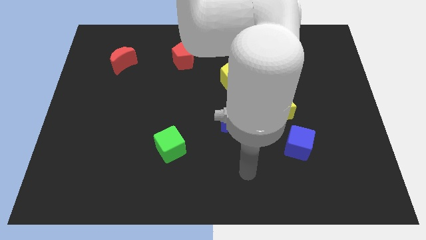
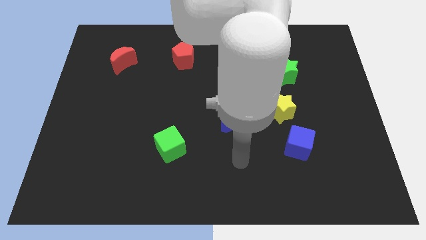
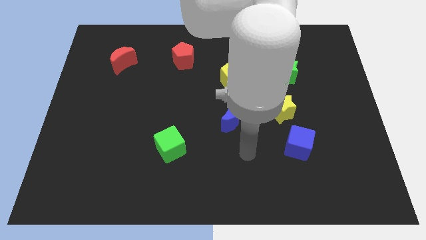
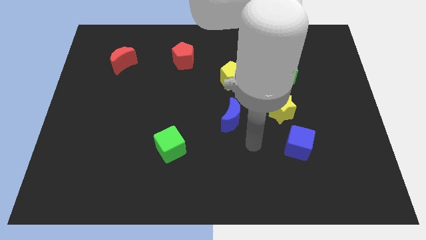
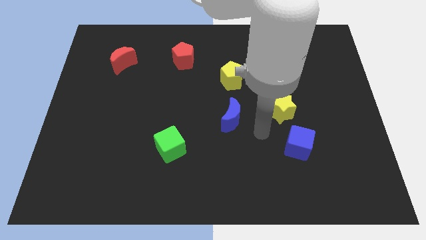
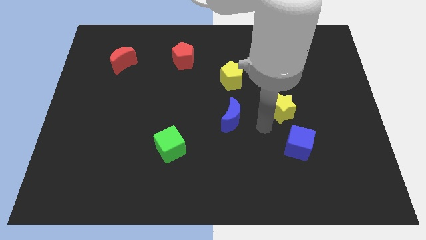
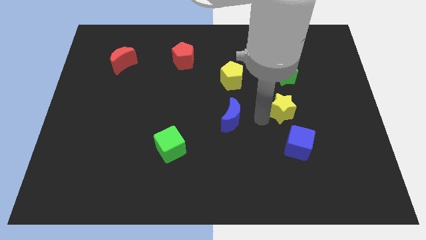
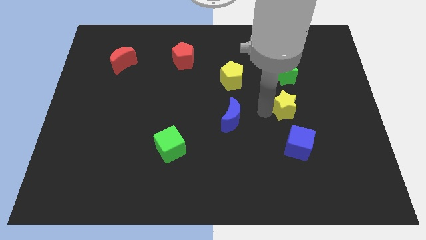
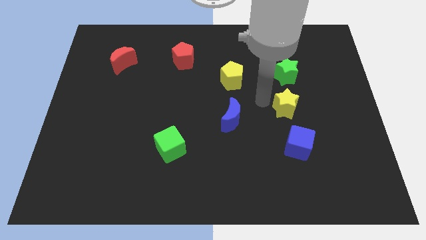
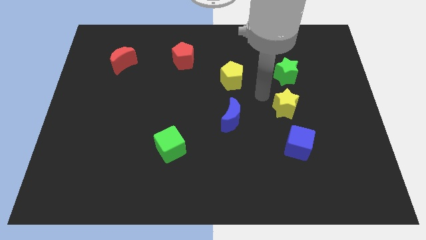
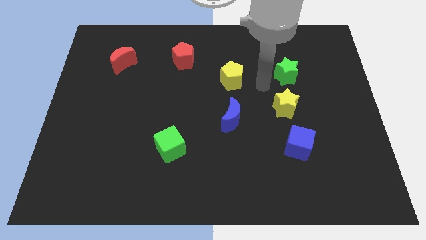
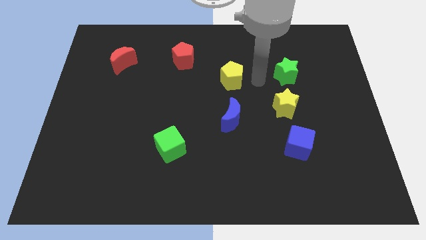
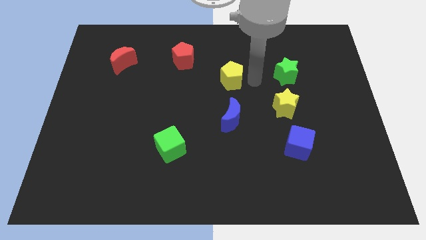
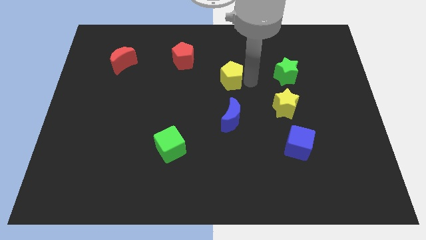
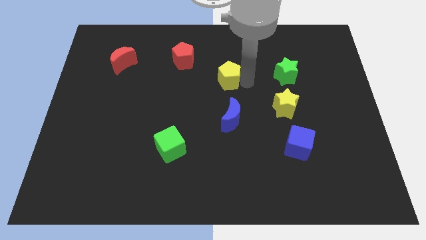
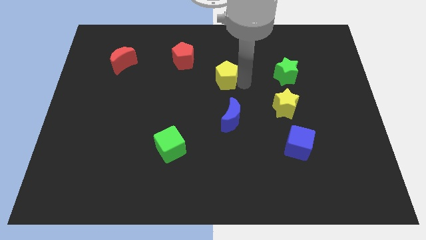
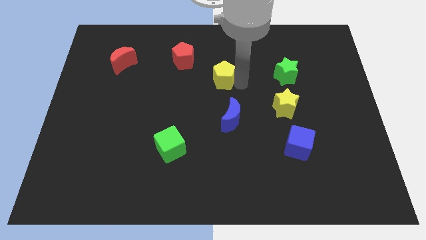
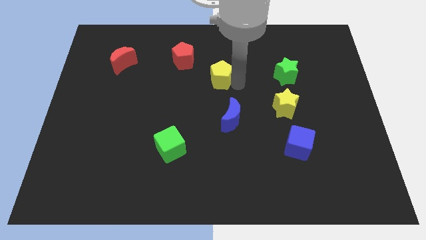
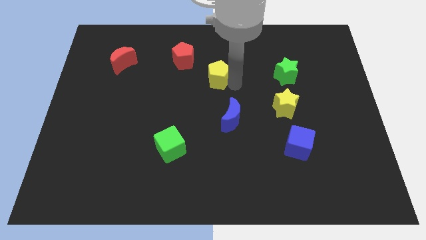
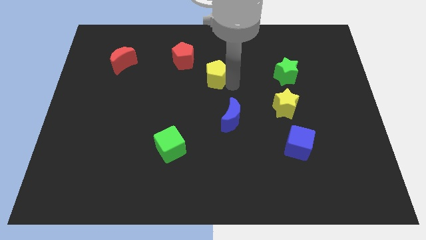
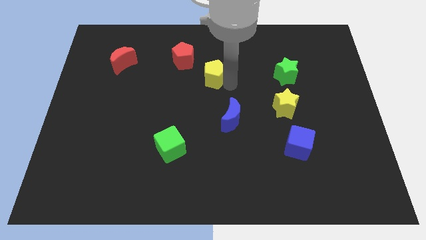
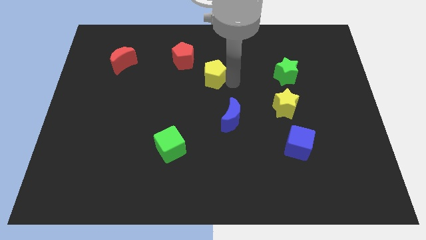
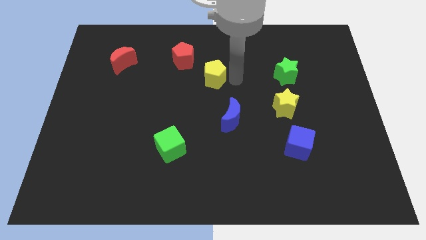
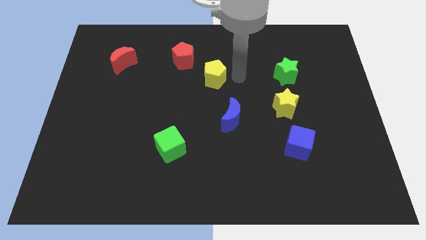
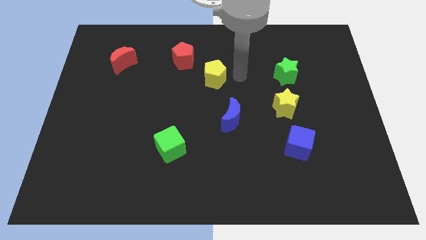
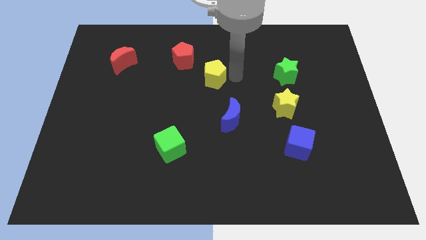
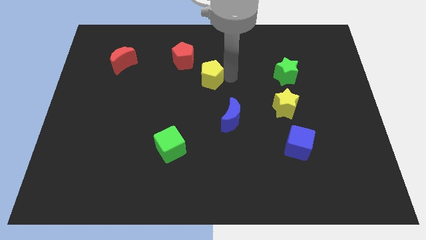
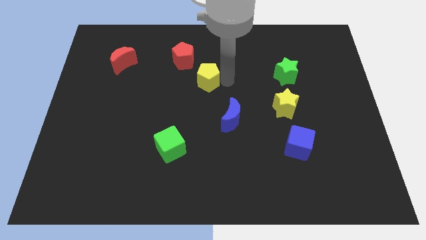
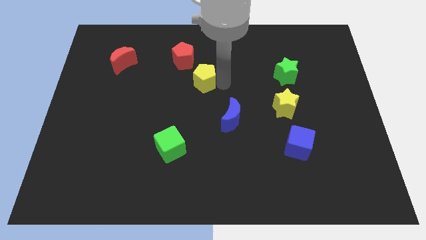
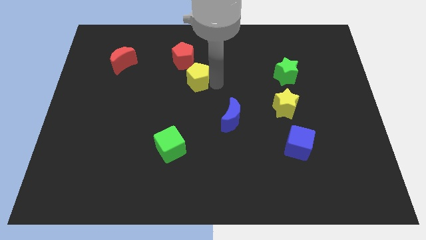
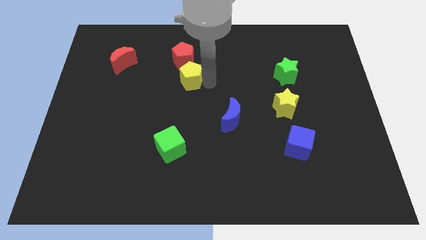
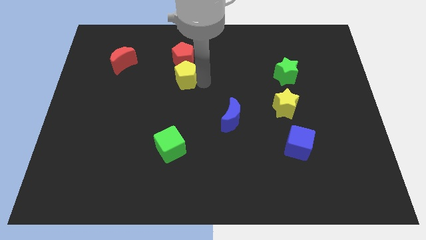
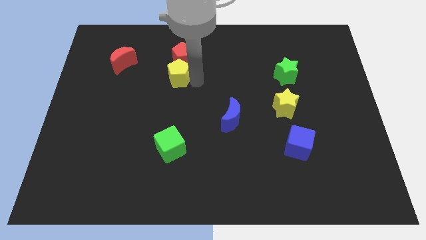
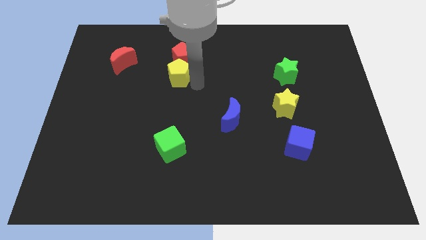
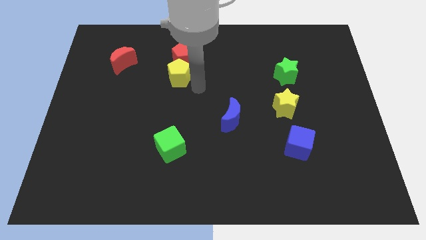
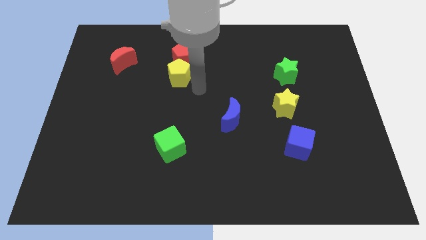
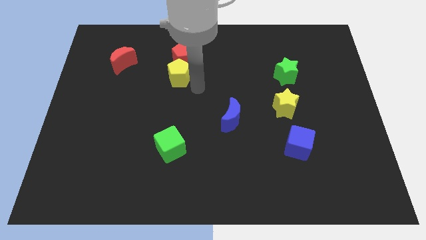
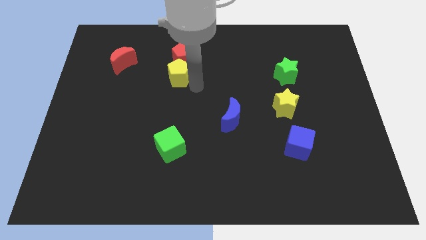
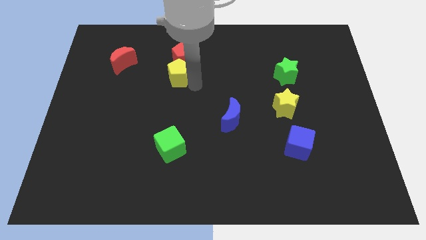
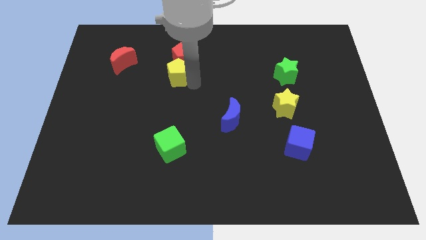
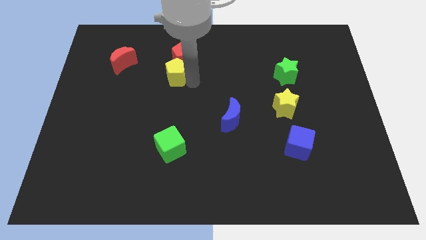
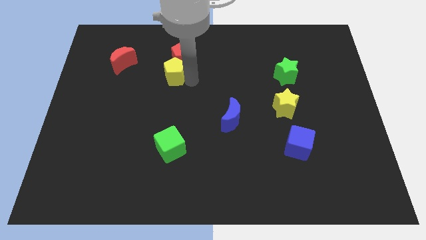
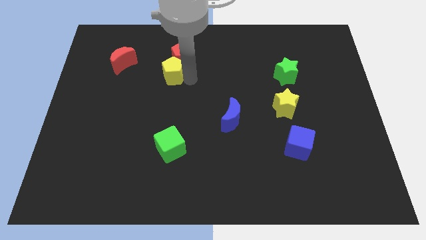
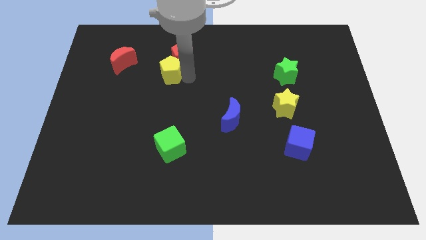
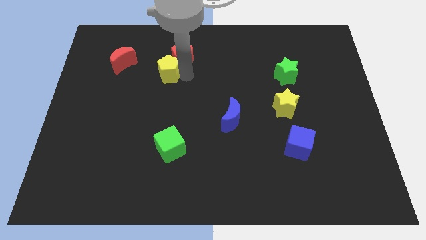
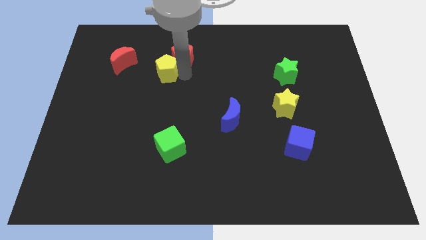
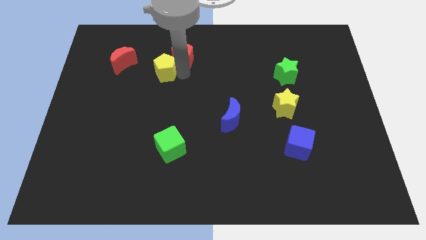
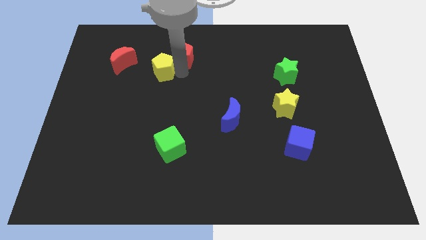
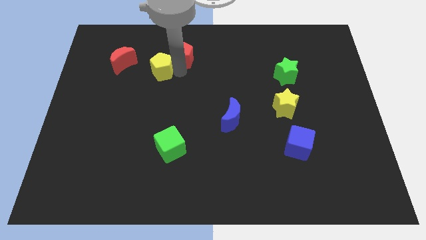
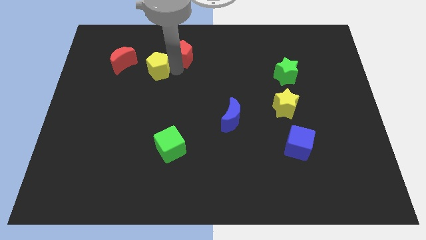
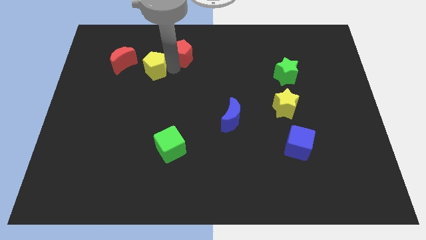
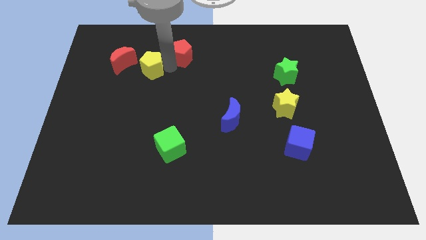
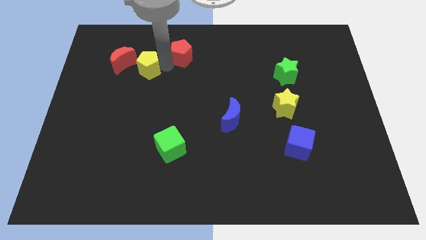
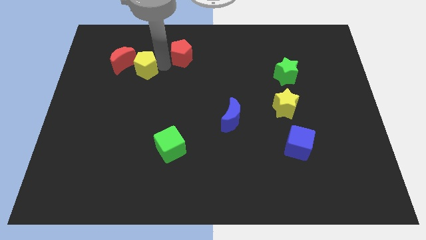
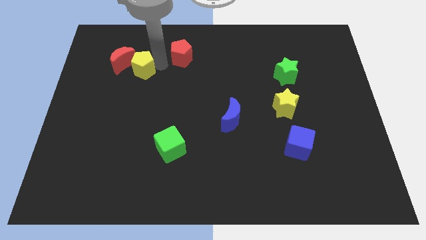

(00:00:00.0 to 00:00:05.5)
put the yellow pentagon next to the red moon

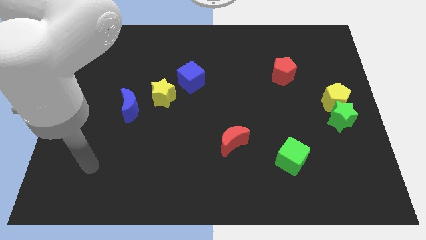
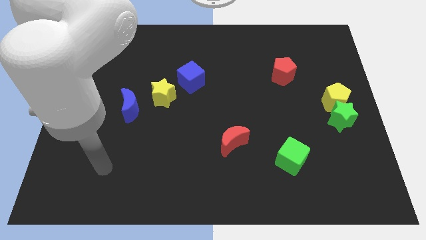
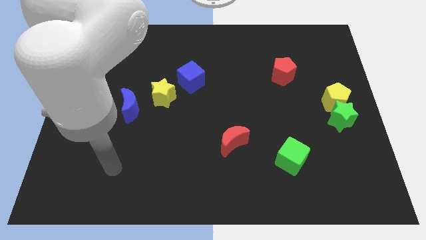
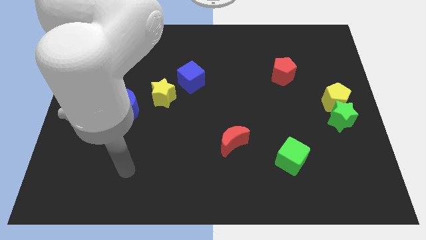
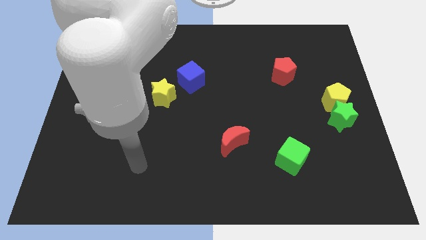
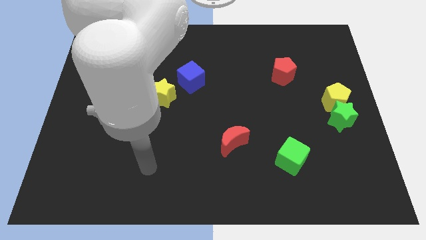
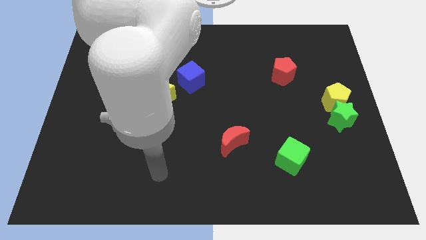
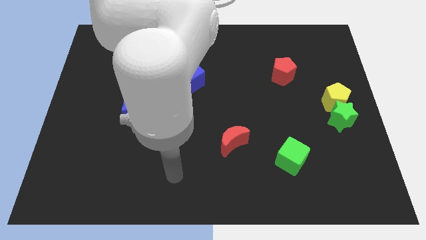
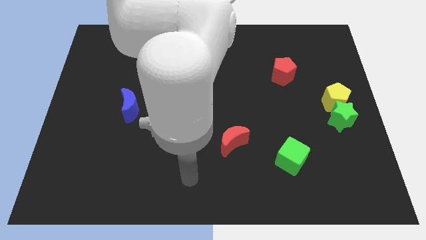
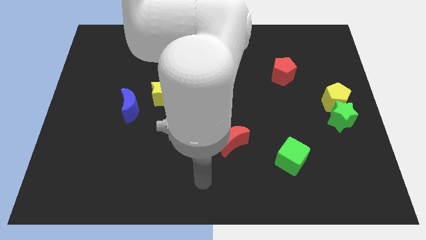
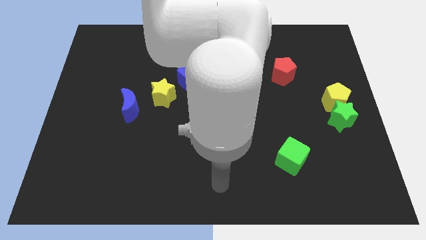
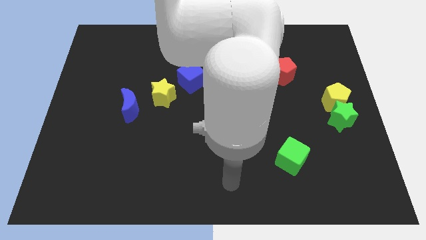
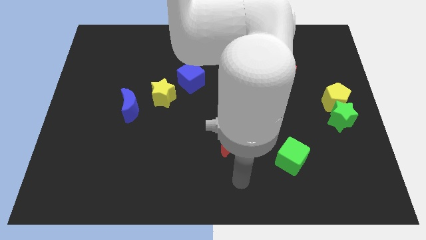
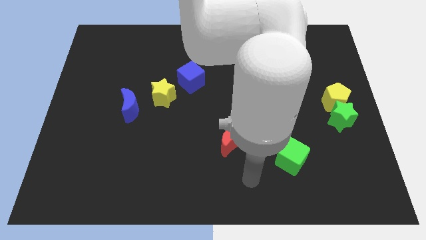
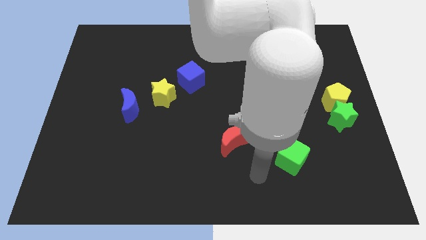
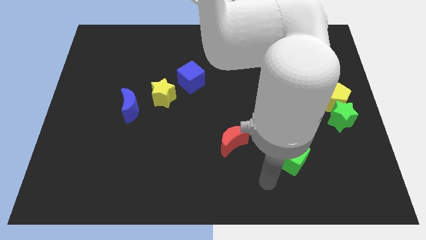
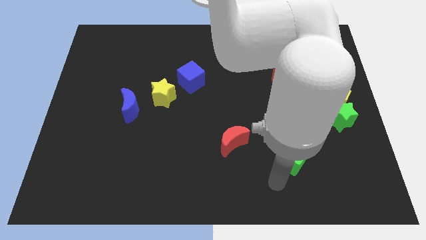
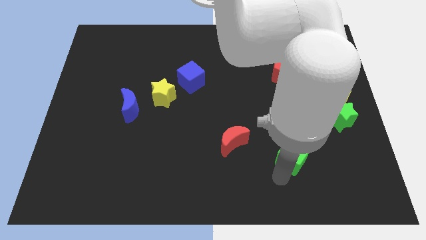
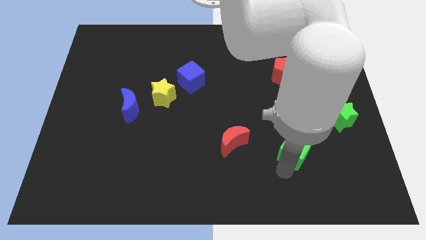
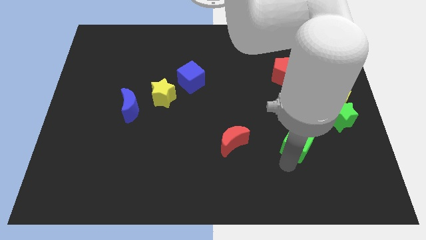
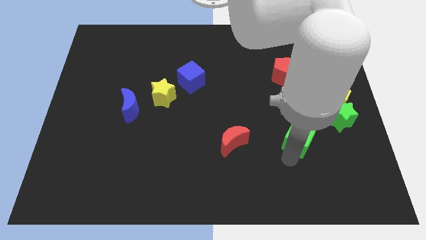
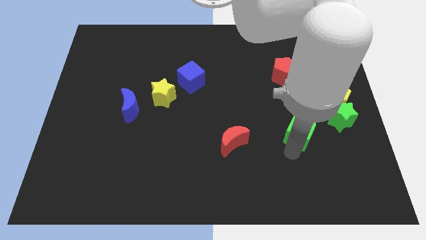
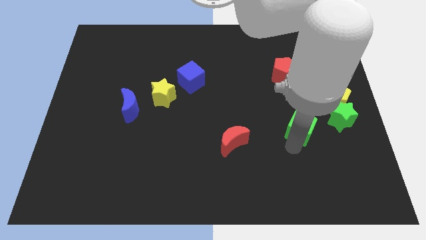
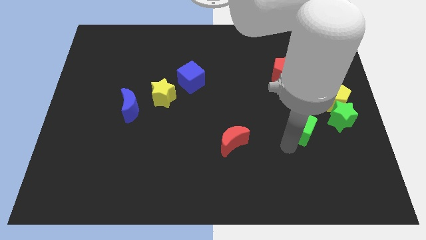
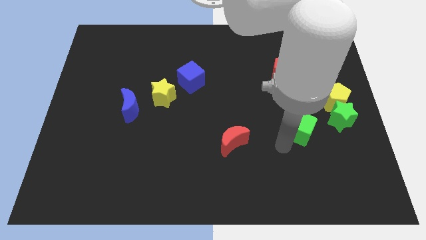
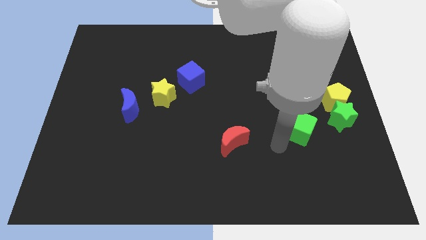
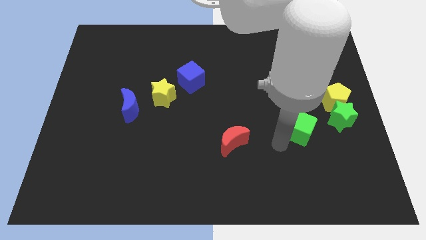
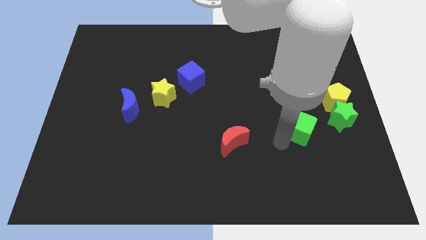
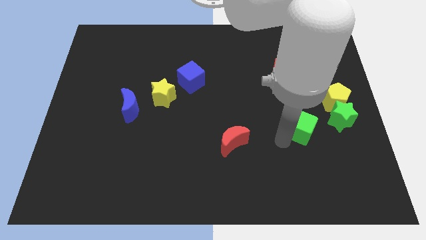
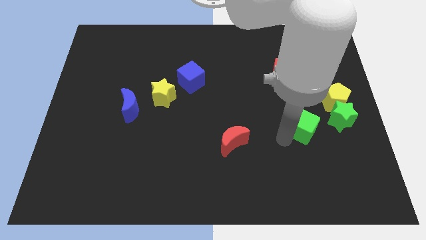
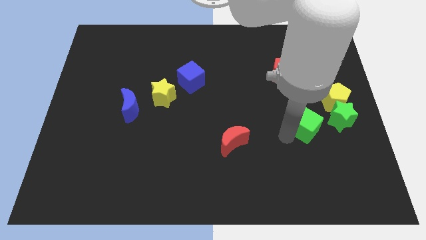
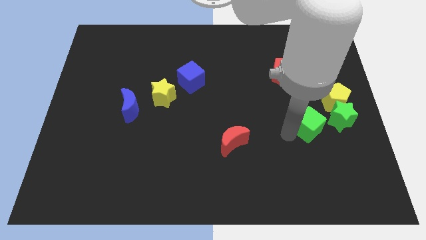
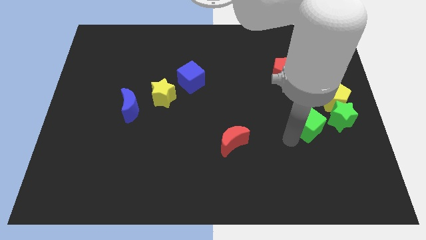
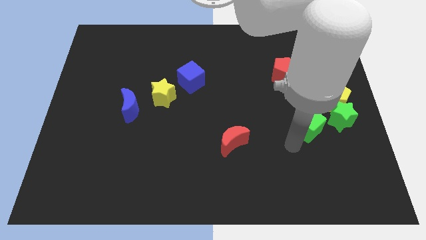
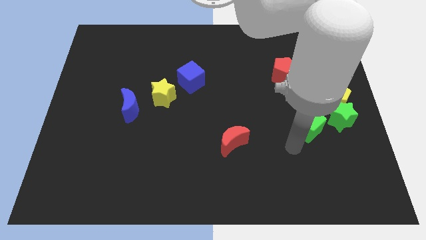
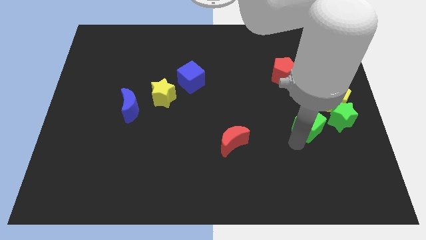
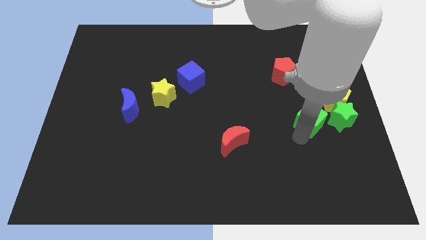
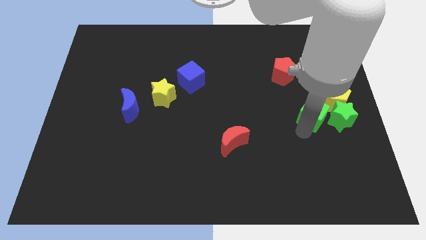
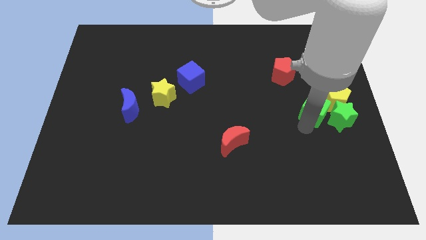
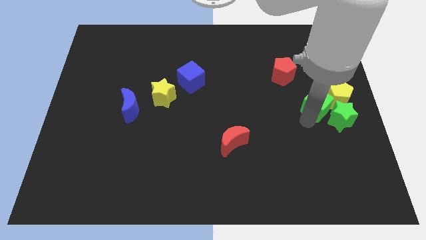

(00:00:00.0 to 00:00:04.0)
move the green cube close to the yellow pentagon
